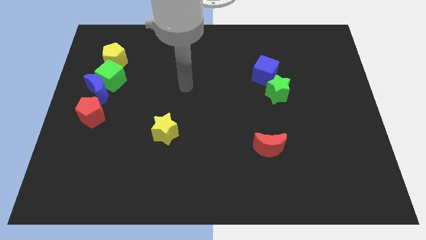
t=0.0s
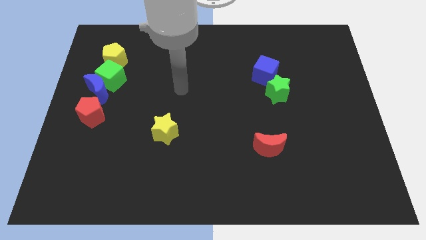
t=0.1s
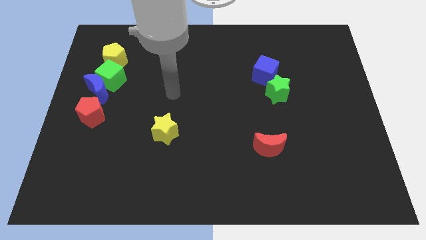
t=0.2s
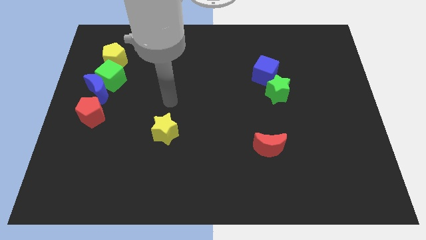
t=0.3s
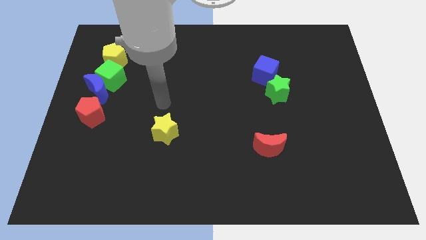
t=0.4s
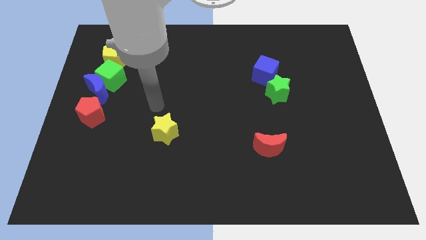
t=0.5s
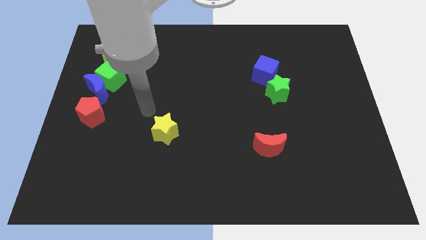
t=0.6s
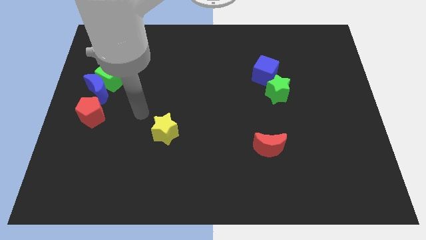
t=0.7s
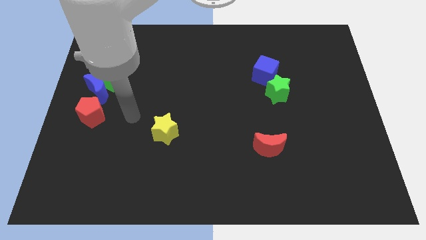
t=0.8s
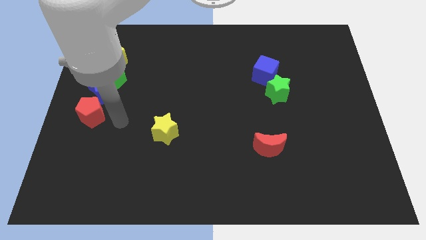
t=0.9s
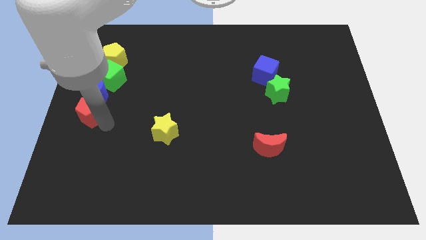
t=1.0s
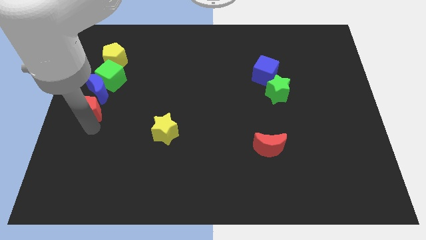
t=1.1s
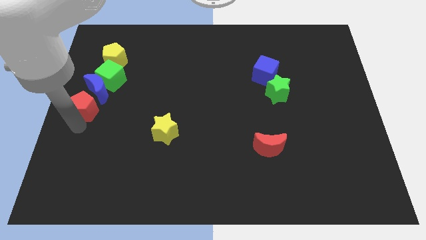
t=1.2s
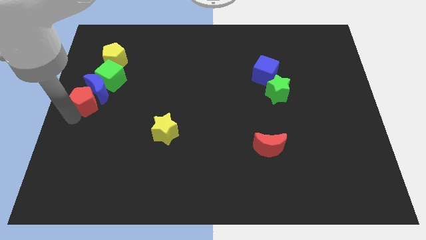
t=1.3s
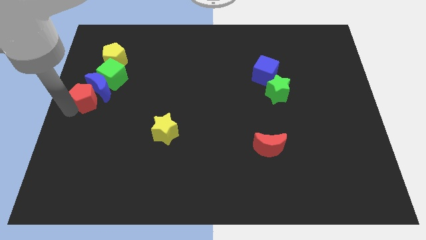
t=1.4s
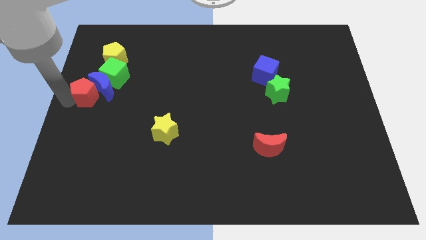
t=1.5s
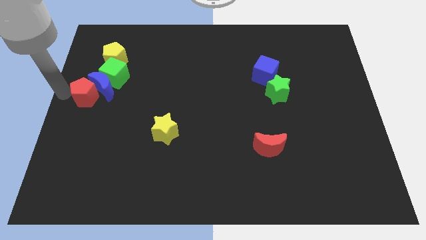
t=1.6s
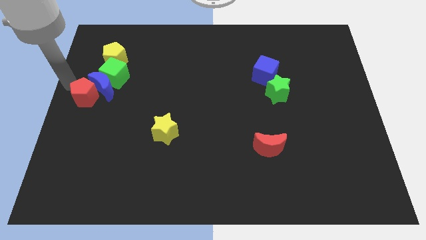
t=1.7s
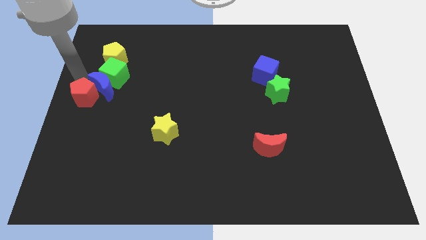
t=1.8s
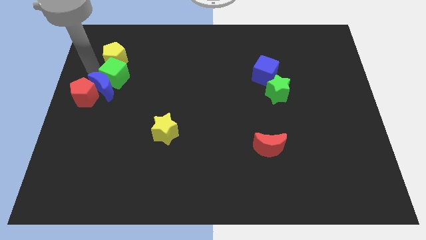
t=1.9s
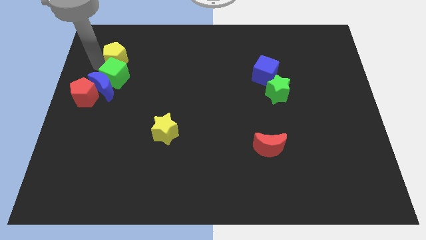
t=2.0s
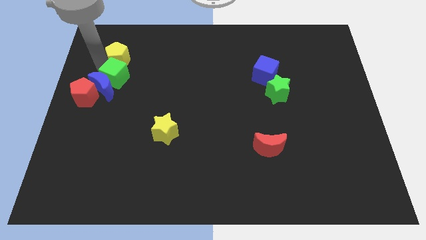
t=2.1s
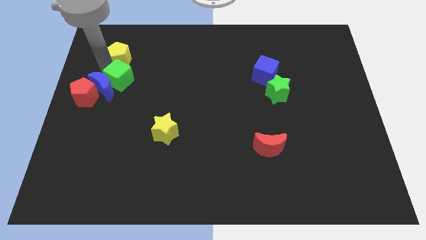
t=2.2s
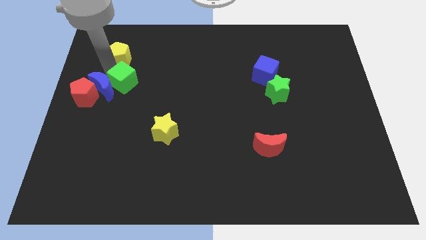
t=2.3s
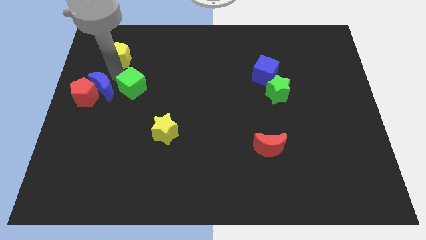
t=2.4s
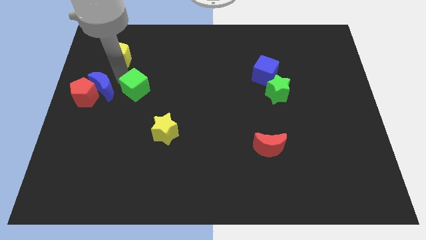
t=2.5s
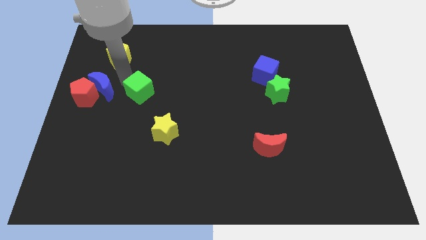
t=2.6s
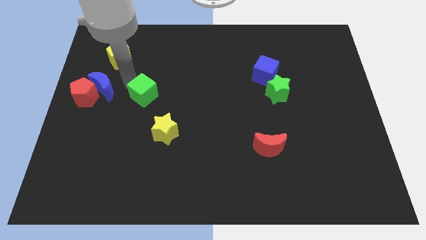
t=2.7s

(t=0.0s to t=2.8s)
separate the green cube from the blue moon and yellow pentagon

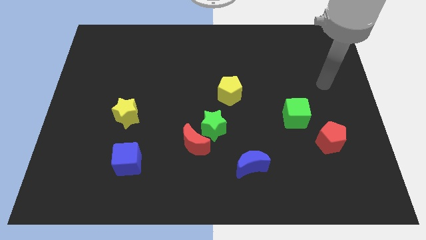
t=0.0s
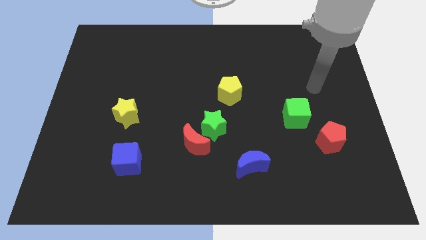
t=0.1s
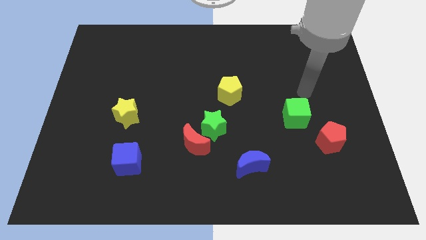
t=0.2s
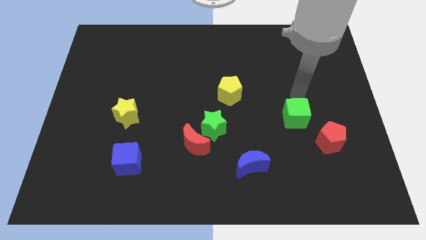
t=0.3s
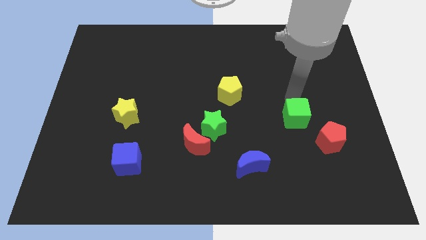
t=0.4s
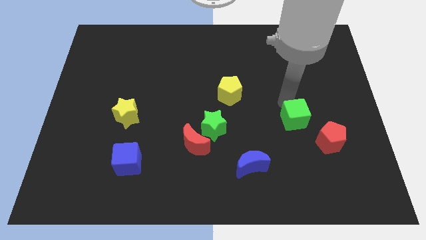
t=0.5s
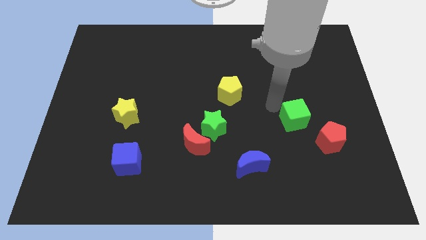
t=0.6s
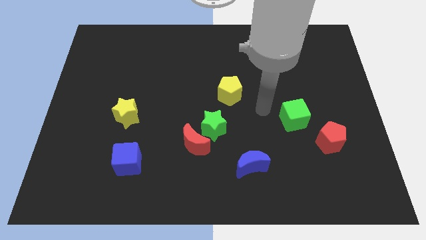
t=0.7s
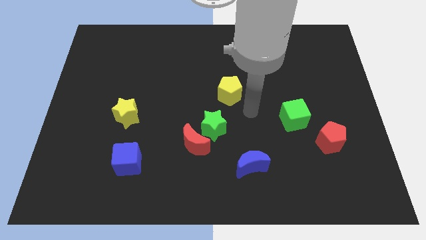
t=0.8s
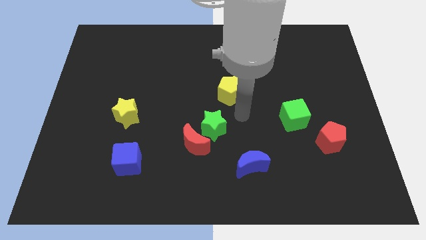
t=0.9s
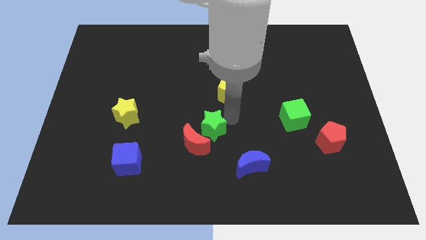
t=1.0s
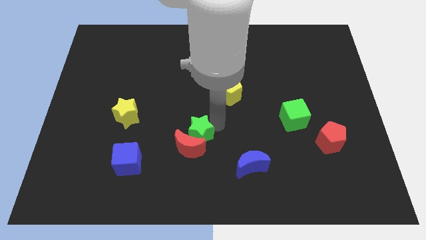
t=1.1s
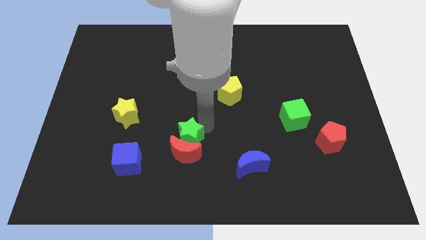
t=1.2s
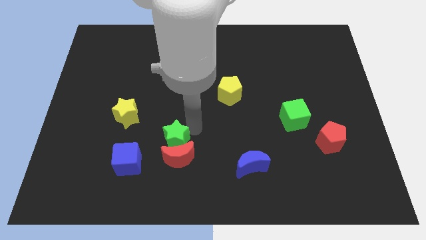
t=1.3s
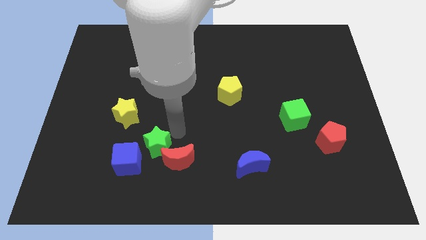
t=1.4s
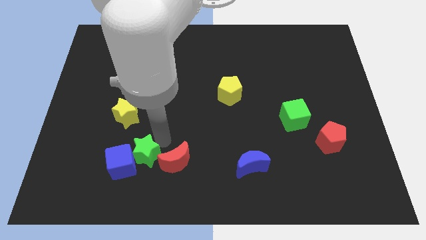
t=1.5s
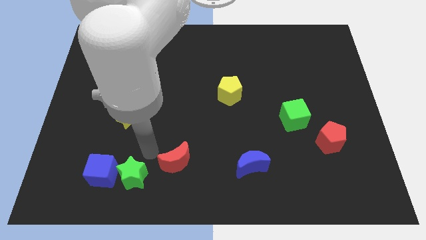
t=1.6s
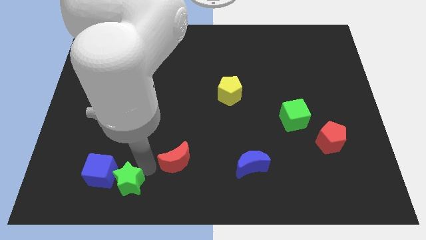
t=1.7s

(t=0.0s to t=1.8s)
move the red moon away from the green star

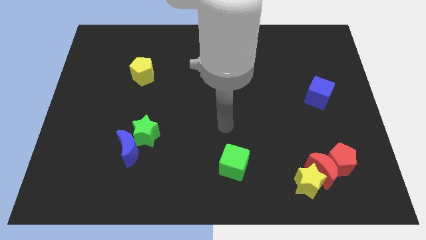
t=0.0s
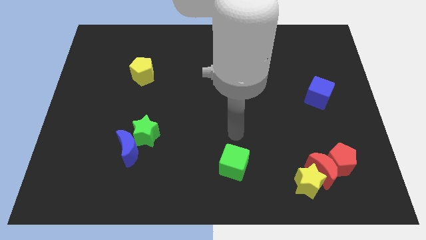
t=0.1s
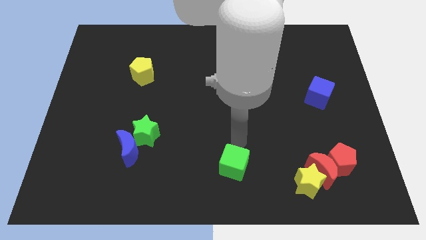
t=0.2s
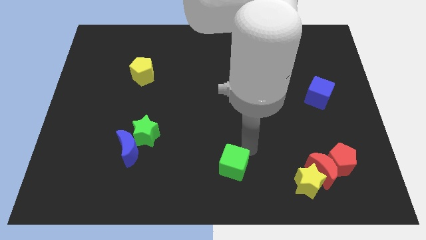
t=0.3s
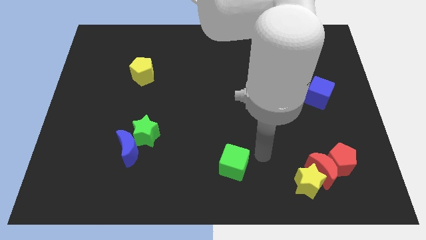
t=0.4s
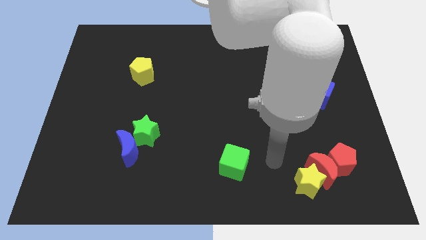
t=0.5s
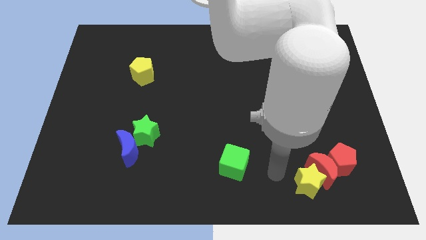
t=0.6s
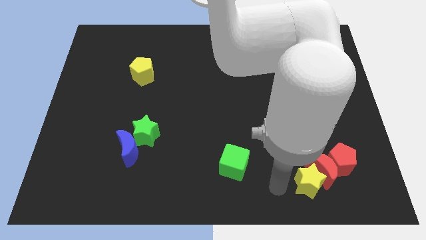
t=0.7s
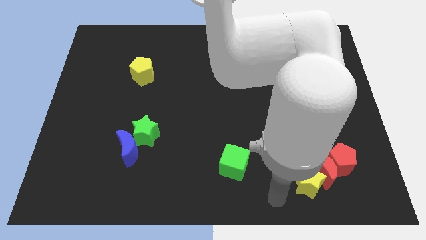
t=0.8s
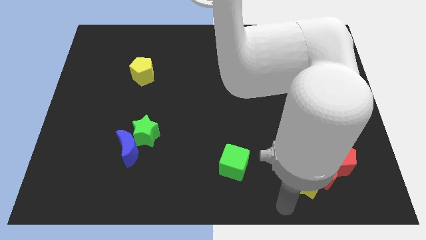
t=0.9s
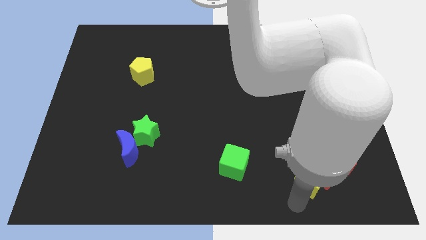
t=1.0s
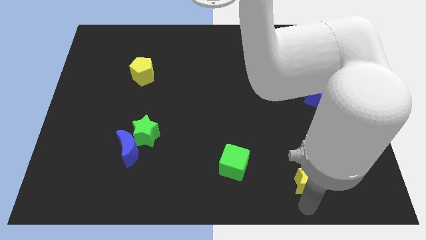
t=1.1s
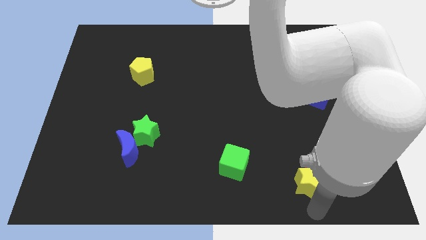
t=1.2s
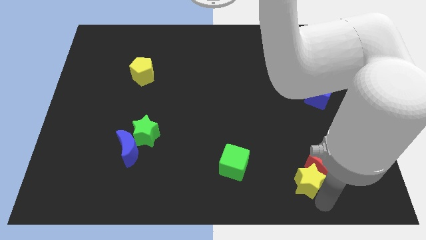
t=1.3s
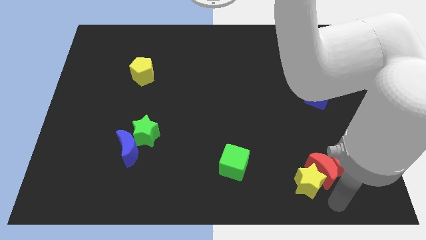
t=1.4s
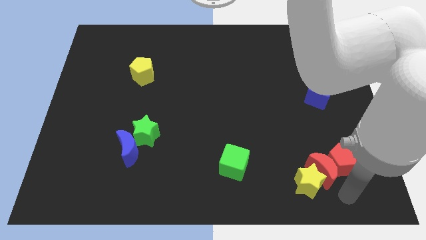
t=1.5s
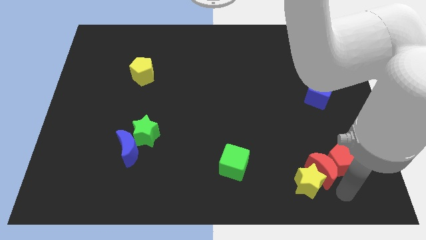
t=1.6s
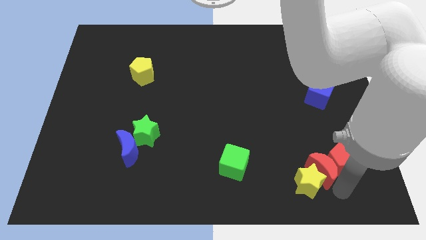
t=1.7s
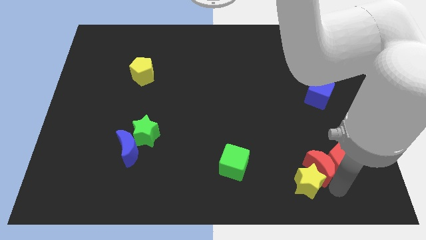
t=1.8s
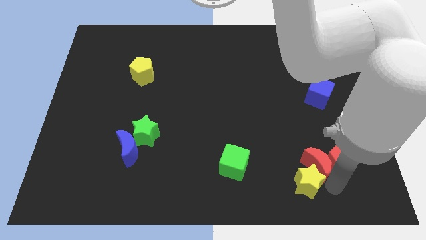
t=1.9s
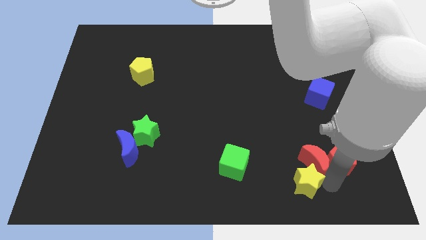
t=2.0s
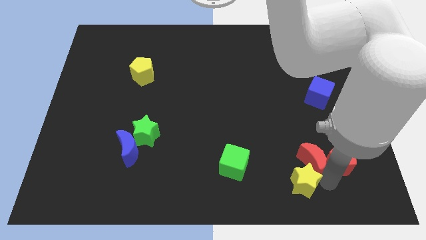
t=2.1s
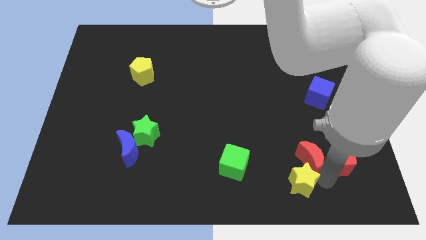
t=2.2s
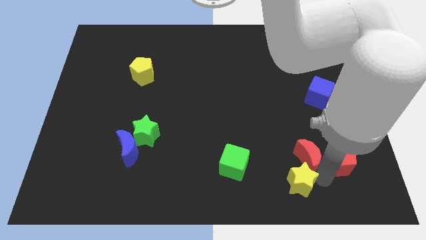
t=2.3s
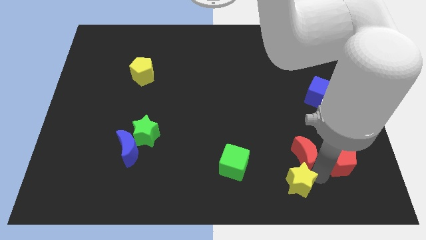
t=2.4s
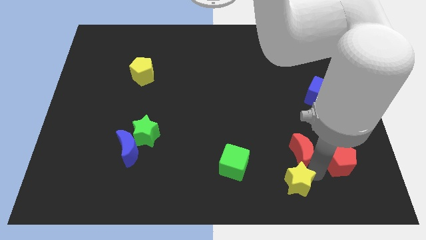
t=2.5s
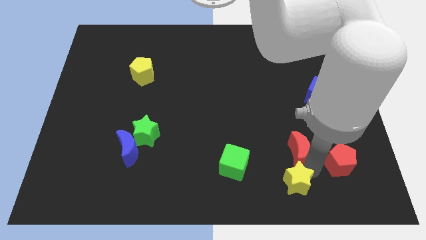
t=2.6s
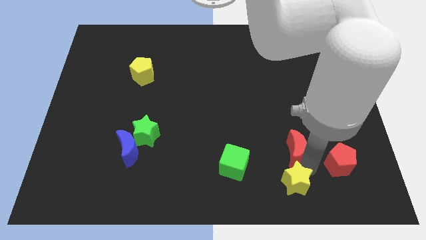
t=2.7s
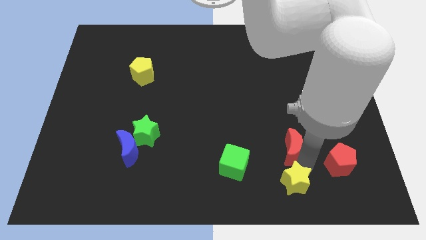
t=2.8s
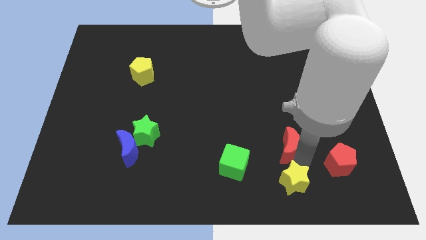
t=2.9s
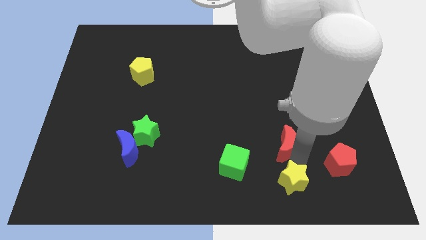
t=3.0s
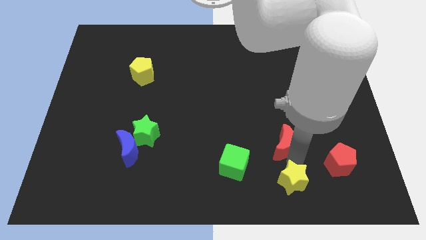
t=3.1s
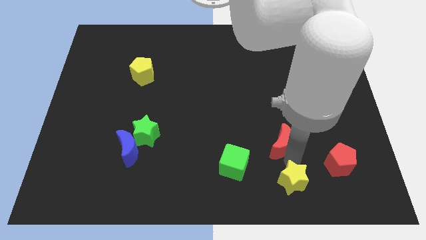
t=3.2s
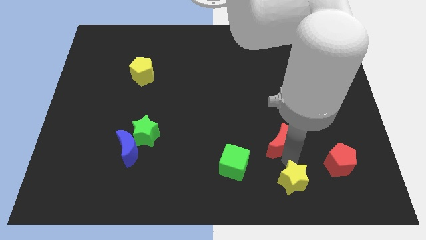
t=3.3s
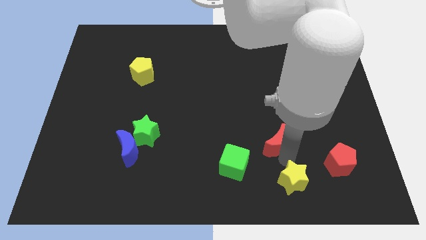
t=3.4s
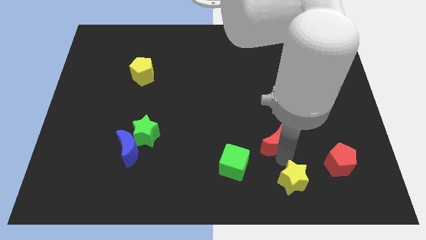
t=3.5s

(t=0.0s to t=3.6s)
separate the red moon from the yellow star and red pentagon

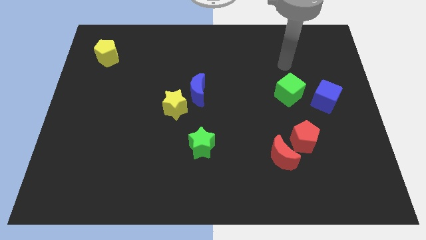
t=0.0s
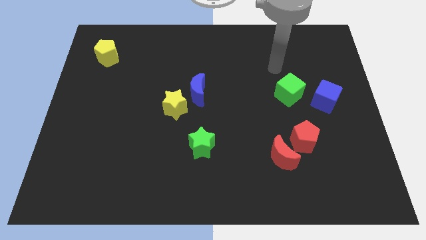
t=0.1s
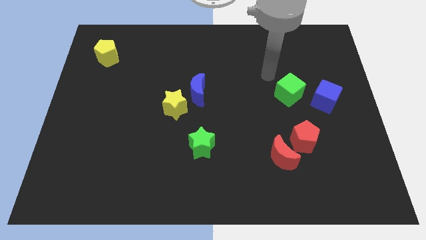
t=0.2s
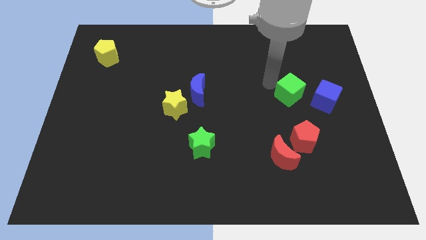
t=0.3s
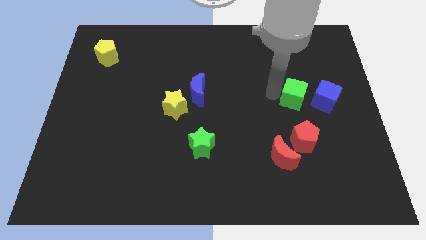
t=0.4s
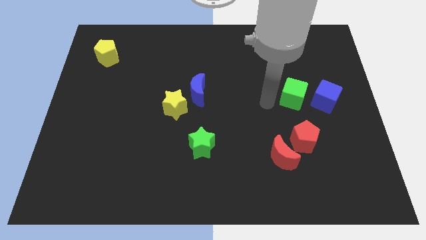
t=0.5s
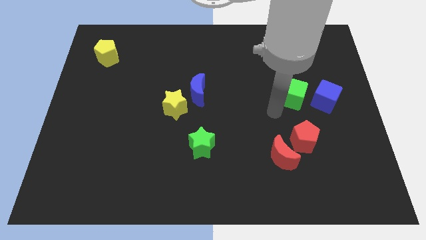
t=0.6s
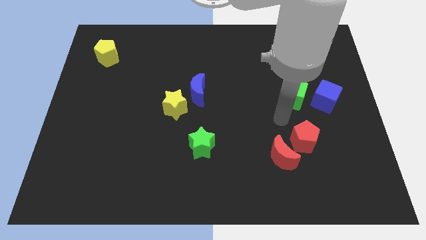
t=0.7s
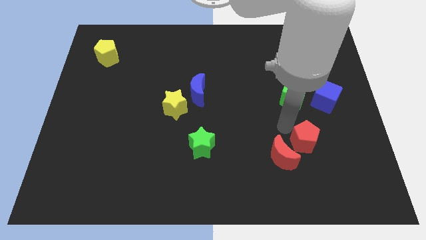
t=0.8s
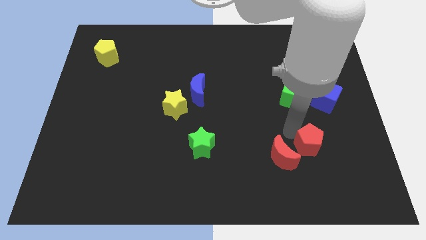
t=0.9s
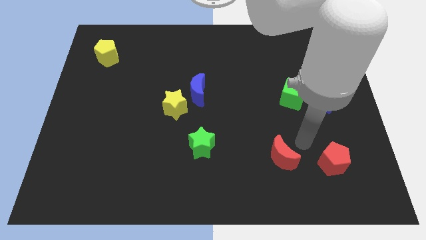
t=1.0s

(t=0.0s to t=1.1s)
separate the red moon from the red pentagon

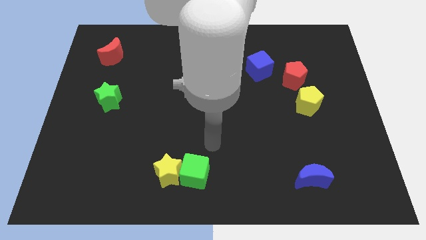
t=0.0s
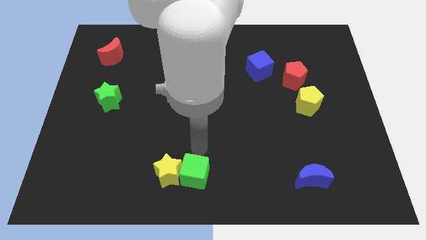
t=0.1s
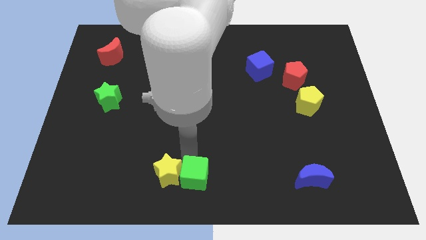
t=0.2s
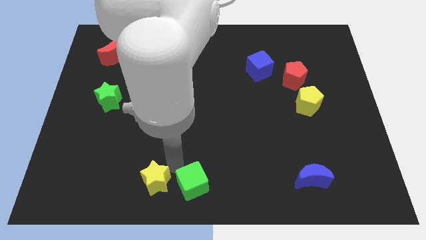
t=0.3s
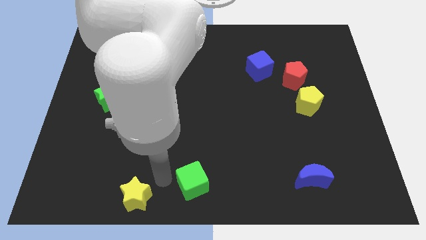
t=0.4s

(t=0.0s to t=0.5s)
separate the green cube from the yellow star
